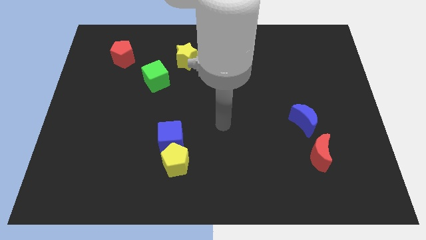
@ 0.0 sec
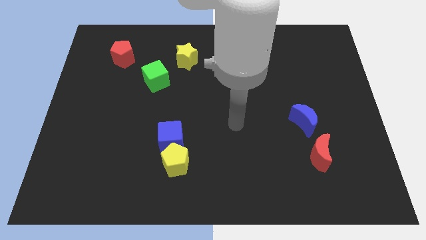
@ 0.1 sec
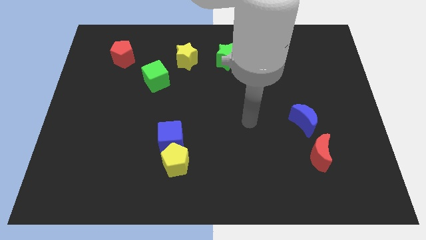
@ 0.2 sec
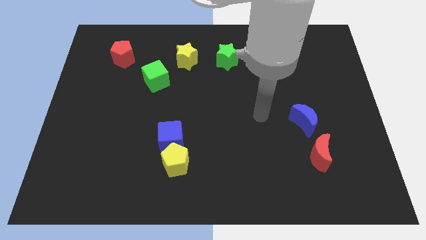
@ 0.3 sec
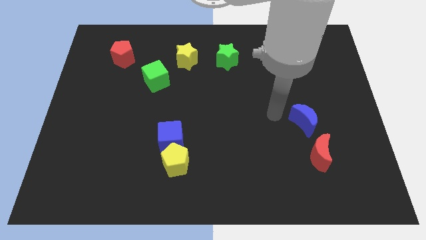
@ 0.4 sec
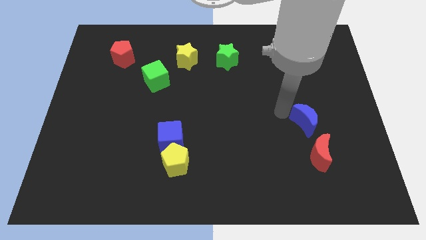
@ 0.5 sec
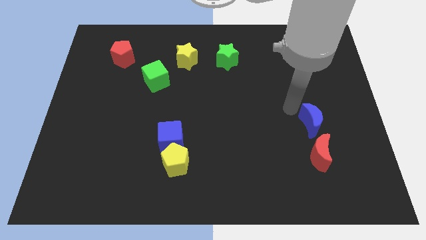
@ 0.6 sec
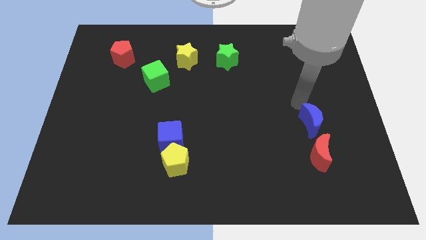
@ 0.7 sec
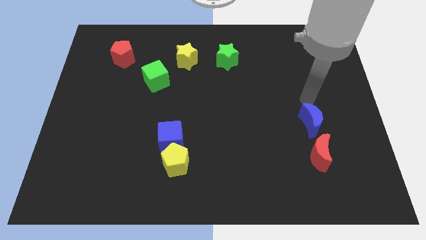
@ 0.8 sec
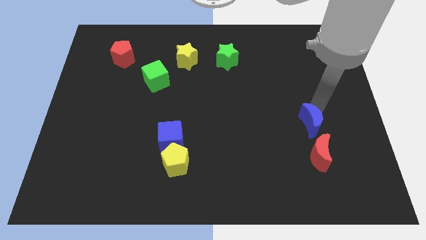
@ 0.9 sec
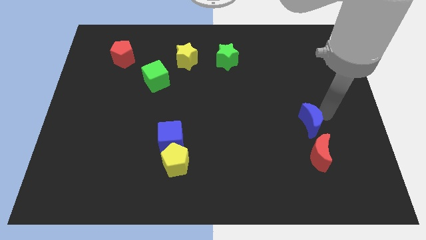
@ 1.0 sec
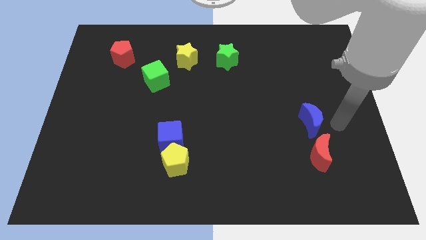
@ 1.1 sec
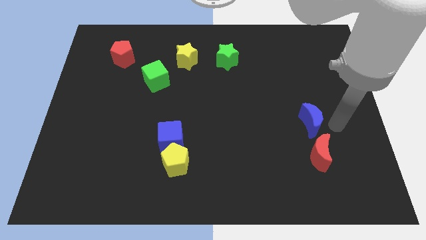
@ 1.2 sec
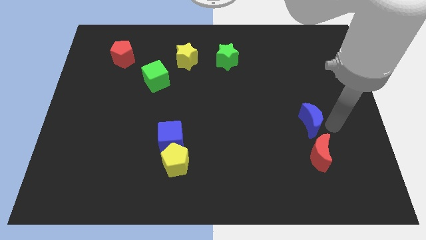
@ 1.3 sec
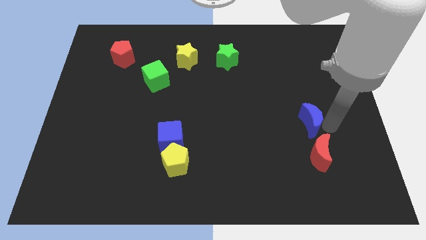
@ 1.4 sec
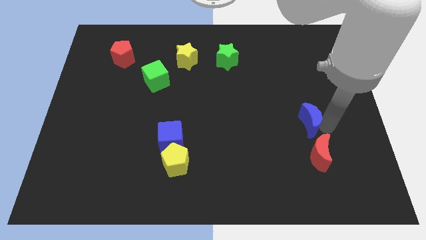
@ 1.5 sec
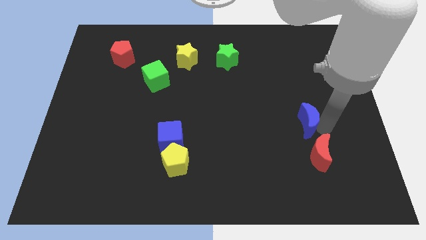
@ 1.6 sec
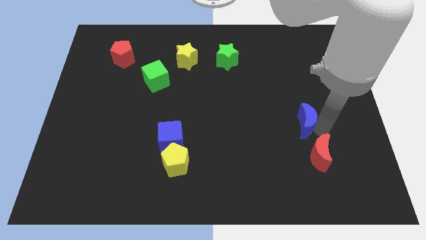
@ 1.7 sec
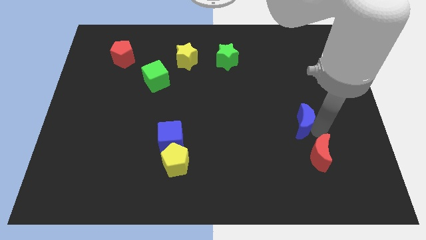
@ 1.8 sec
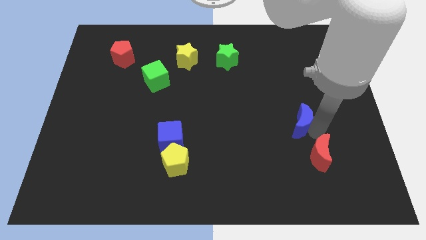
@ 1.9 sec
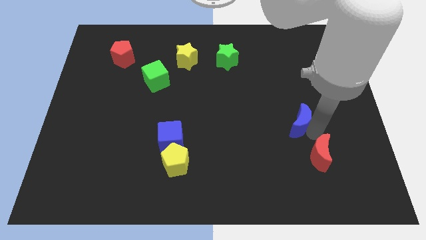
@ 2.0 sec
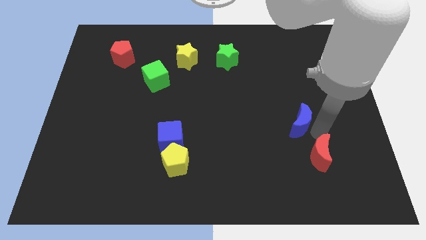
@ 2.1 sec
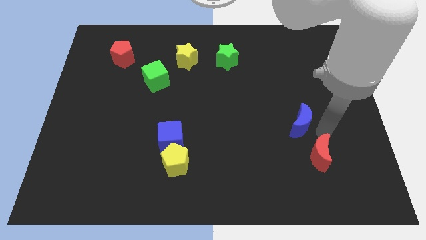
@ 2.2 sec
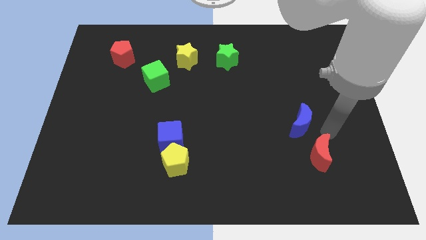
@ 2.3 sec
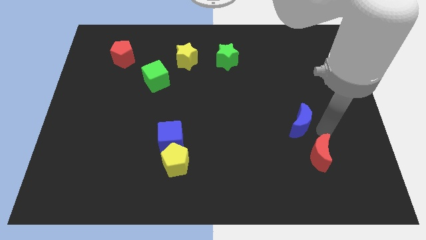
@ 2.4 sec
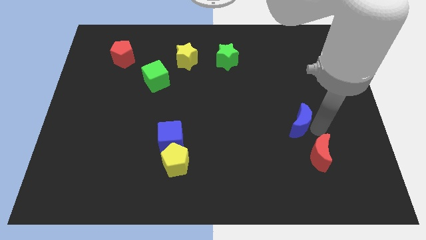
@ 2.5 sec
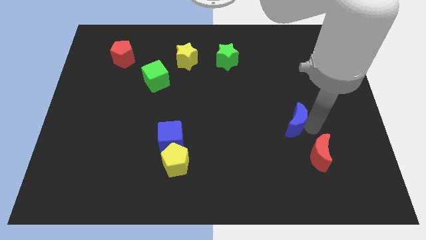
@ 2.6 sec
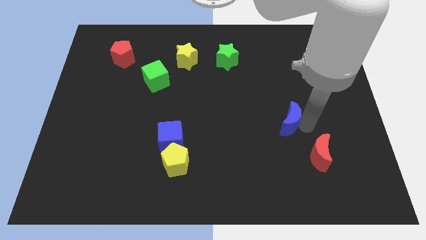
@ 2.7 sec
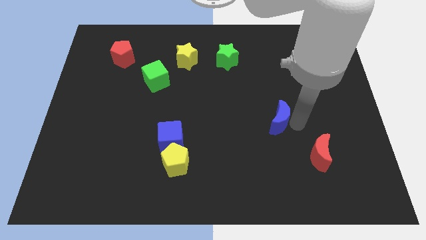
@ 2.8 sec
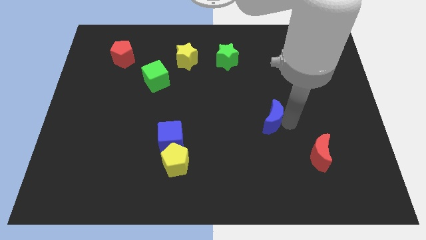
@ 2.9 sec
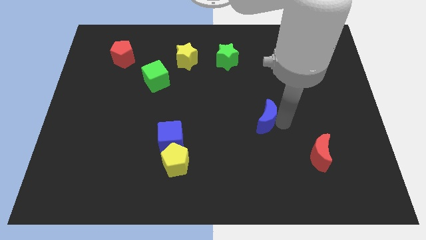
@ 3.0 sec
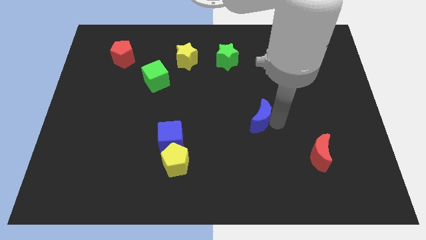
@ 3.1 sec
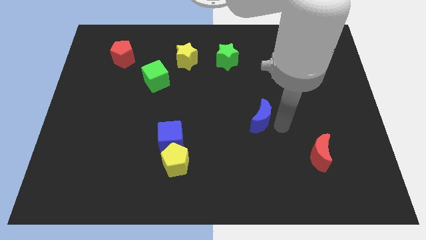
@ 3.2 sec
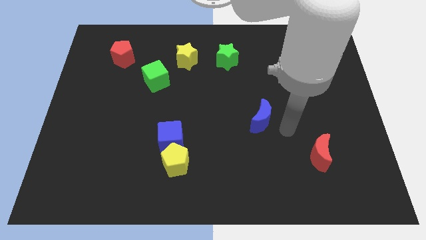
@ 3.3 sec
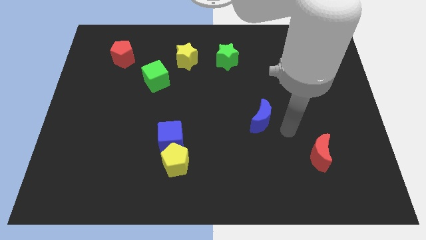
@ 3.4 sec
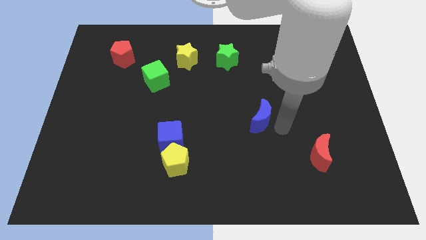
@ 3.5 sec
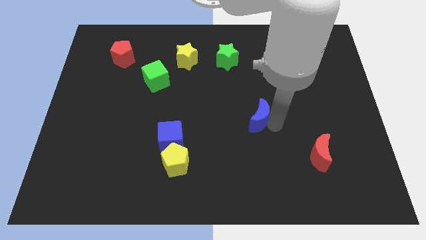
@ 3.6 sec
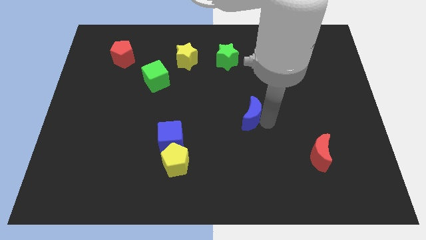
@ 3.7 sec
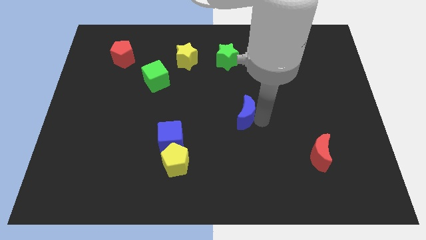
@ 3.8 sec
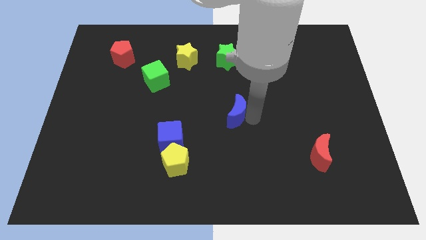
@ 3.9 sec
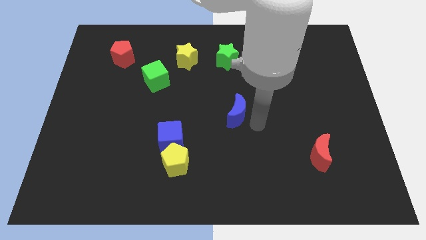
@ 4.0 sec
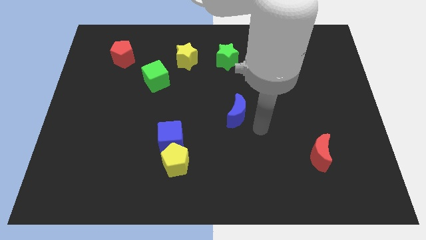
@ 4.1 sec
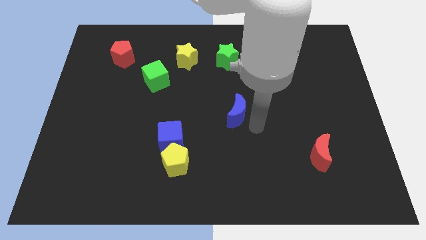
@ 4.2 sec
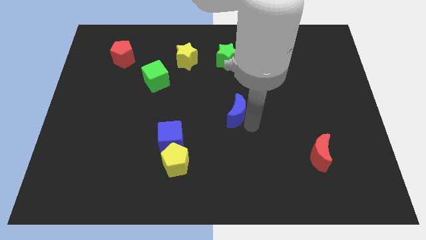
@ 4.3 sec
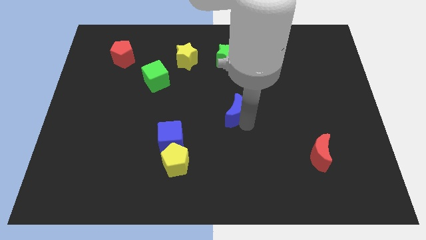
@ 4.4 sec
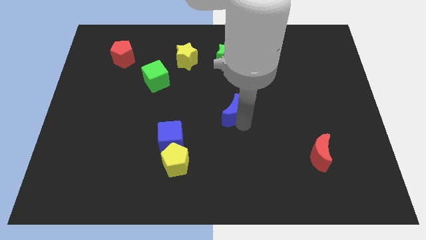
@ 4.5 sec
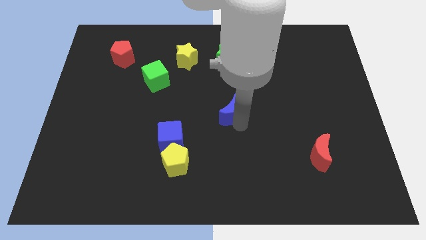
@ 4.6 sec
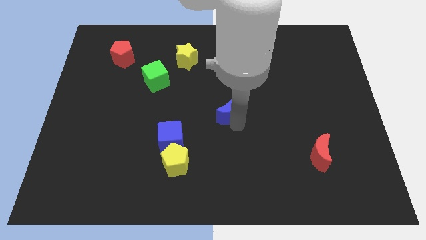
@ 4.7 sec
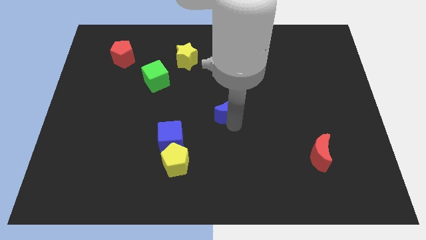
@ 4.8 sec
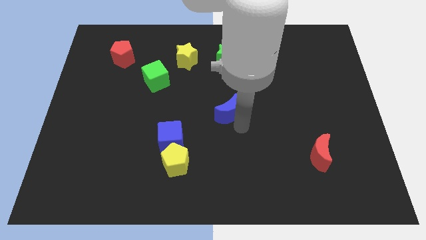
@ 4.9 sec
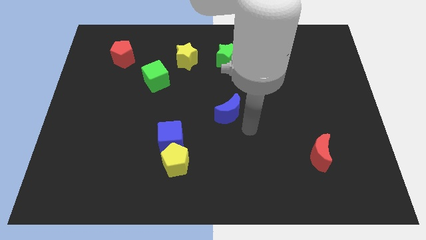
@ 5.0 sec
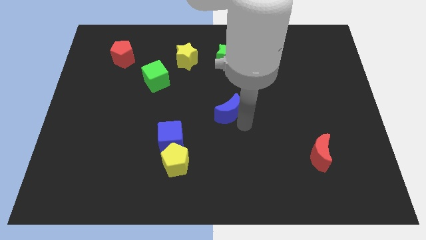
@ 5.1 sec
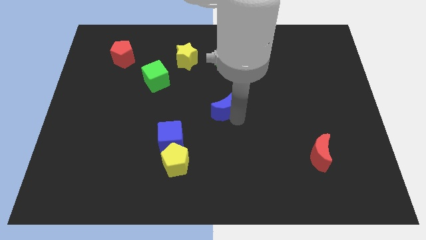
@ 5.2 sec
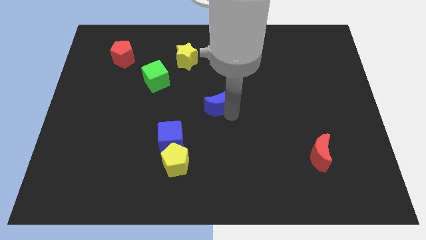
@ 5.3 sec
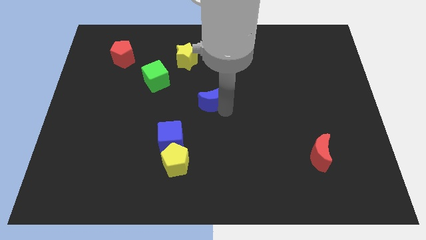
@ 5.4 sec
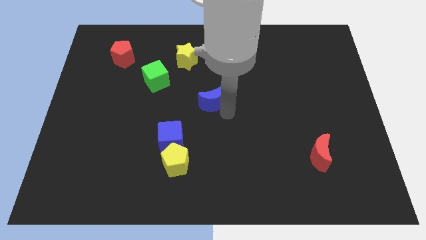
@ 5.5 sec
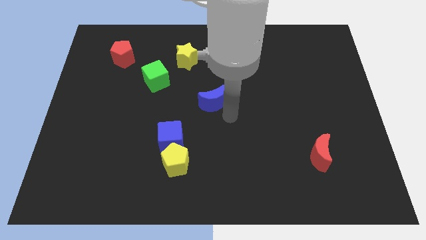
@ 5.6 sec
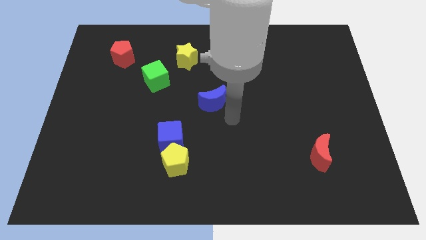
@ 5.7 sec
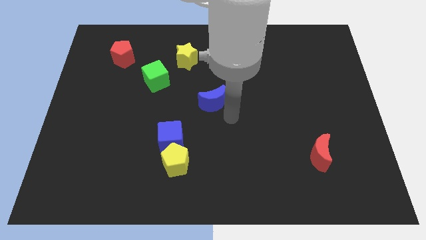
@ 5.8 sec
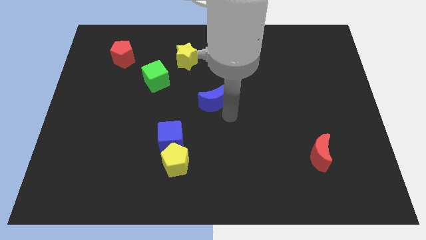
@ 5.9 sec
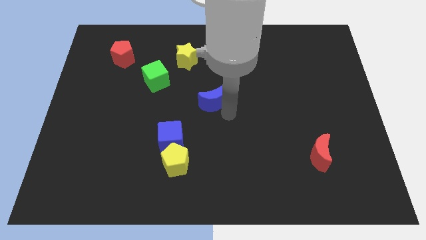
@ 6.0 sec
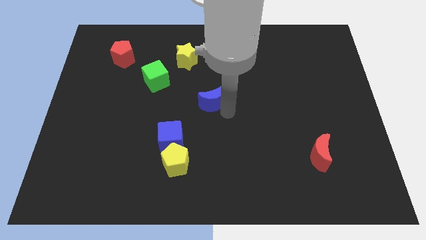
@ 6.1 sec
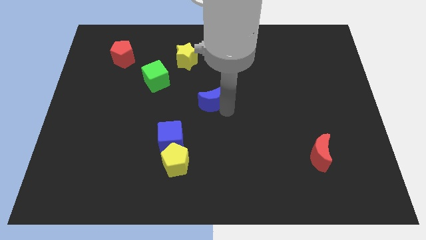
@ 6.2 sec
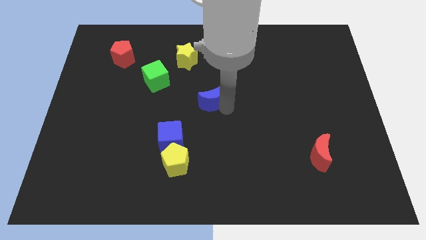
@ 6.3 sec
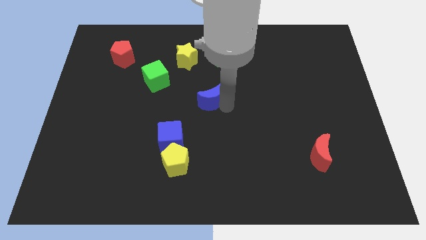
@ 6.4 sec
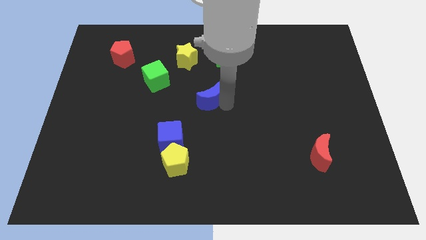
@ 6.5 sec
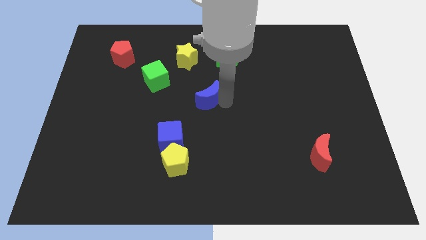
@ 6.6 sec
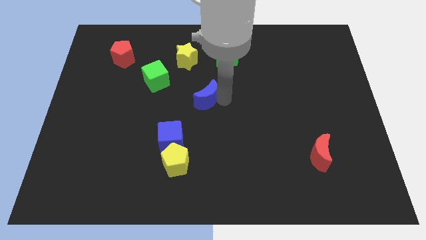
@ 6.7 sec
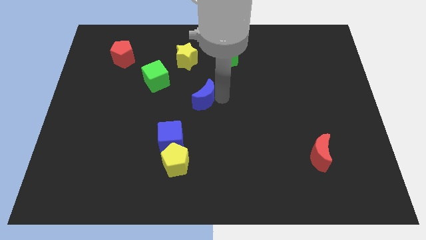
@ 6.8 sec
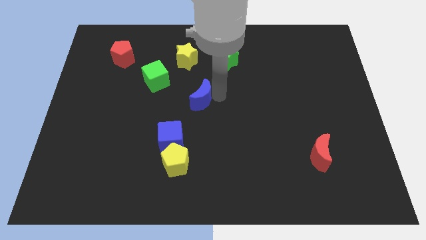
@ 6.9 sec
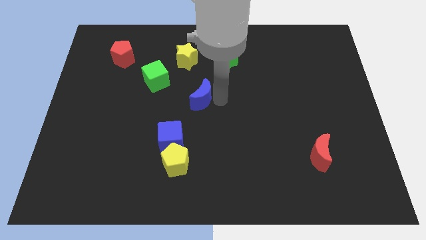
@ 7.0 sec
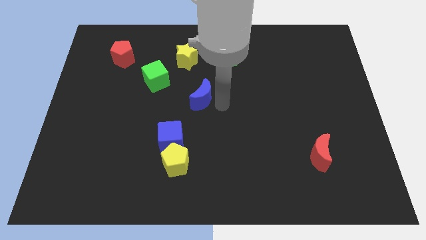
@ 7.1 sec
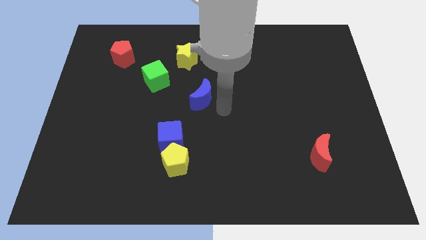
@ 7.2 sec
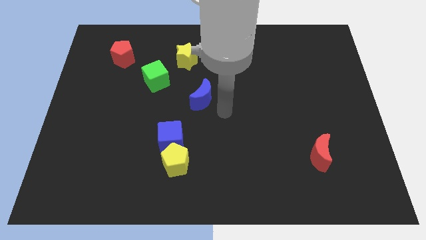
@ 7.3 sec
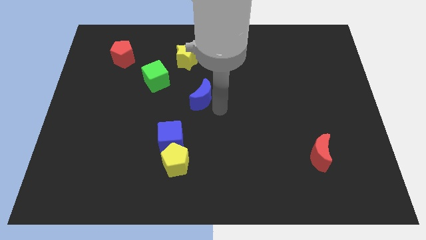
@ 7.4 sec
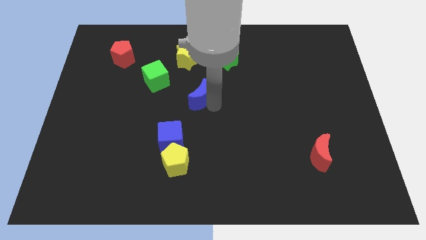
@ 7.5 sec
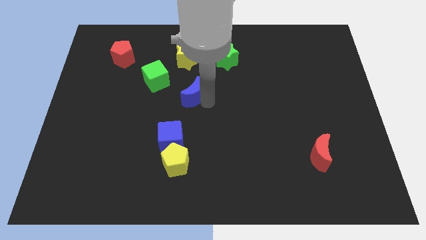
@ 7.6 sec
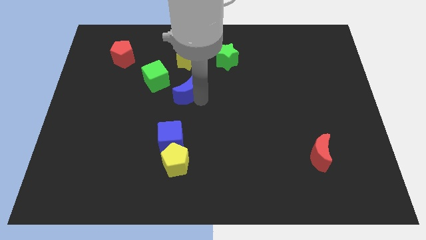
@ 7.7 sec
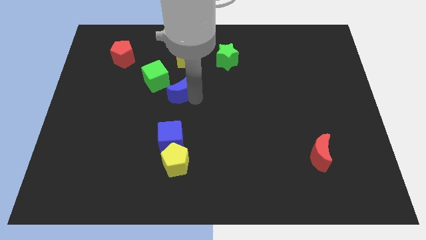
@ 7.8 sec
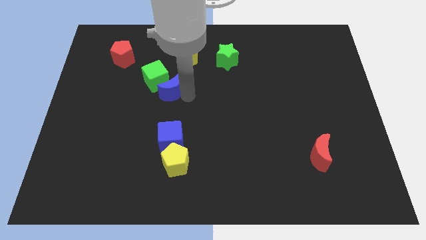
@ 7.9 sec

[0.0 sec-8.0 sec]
put the blue moon close to the green cube
